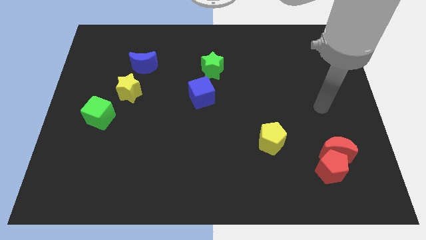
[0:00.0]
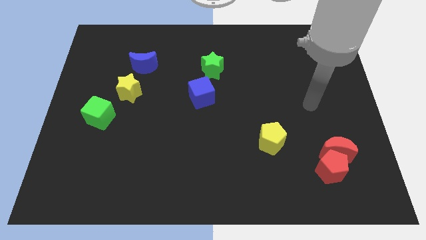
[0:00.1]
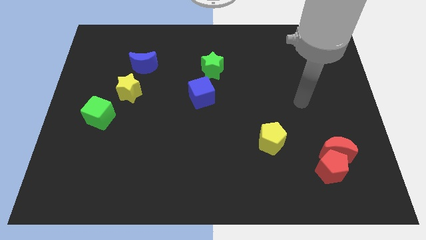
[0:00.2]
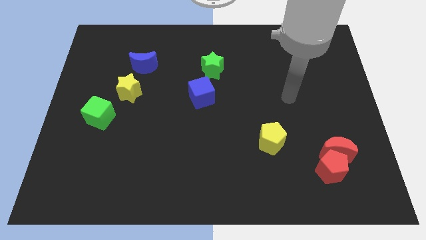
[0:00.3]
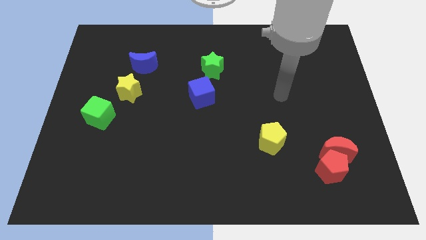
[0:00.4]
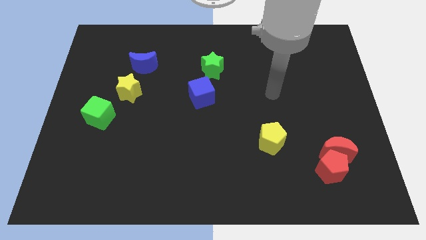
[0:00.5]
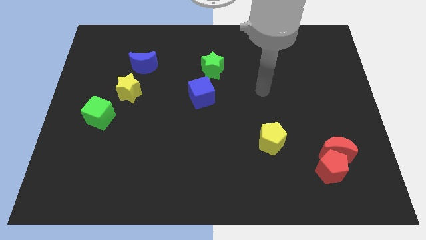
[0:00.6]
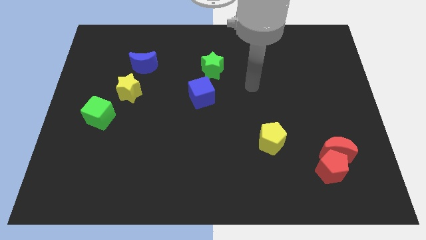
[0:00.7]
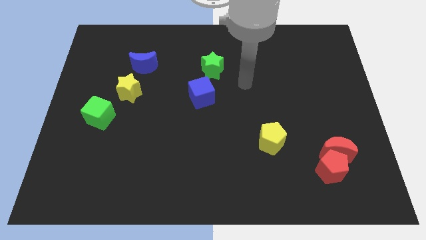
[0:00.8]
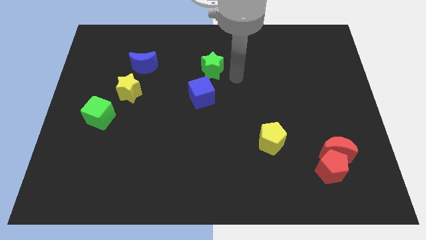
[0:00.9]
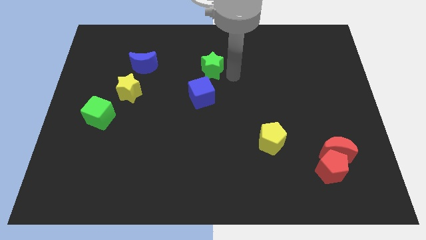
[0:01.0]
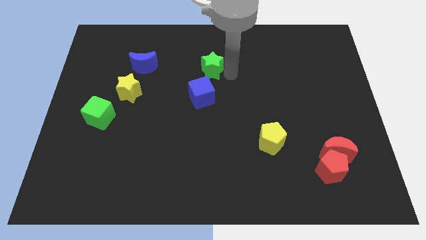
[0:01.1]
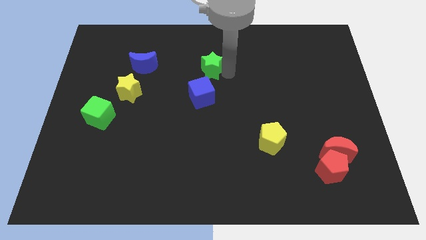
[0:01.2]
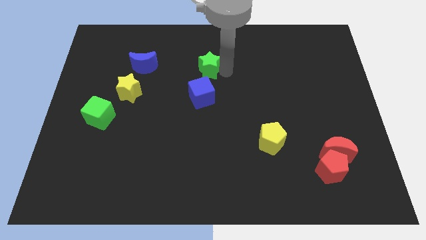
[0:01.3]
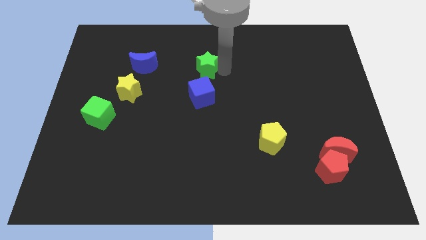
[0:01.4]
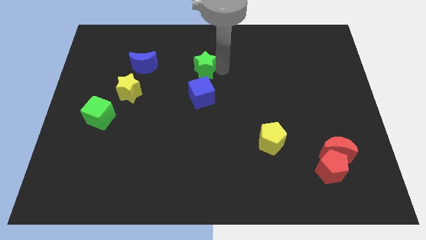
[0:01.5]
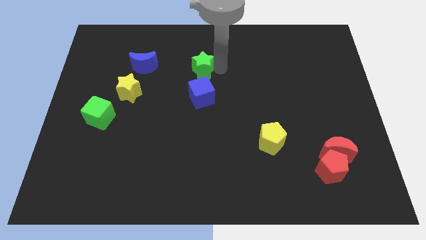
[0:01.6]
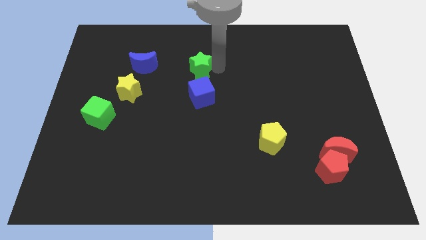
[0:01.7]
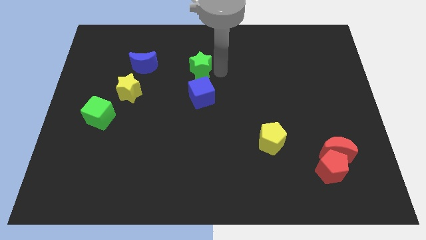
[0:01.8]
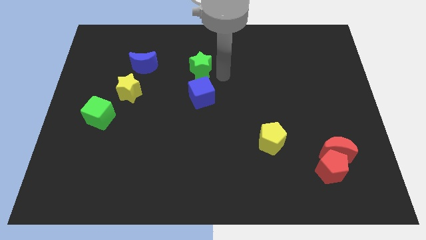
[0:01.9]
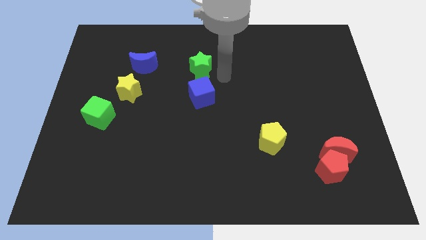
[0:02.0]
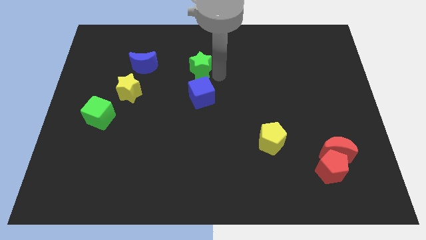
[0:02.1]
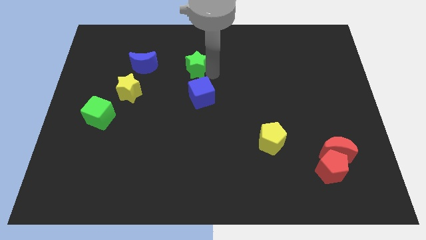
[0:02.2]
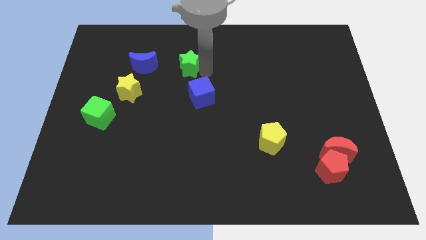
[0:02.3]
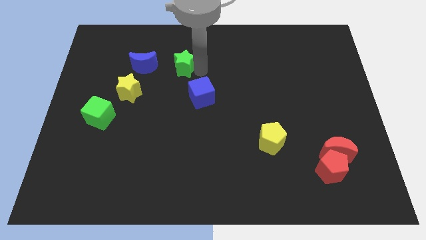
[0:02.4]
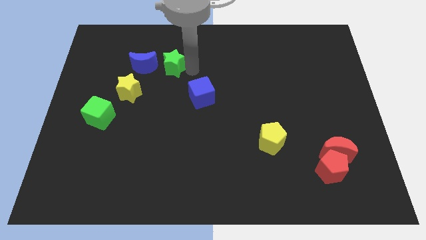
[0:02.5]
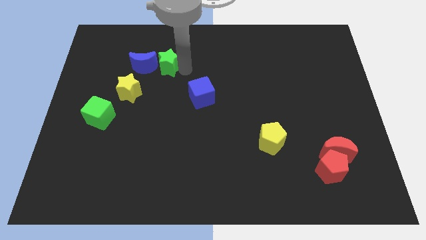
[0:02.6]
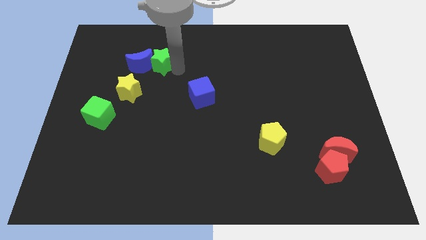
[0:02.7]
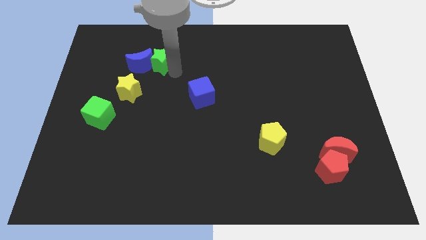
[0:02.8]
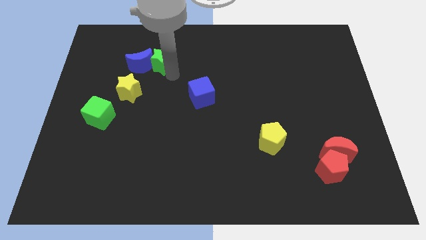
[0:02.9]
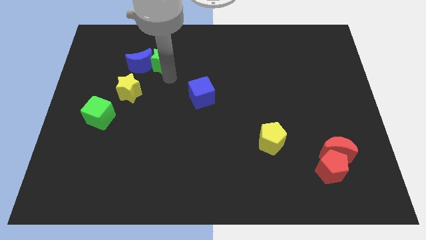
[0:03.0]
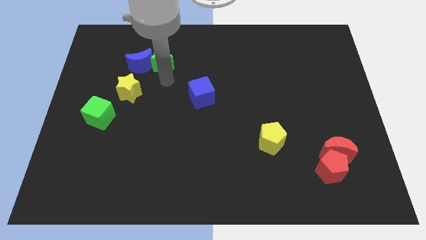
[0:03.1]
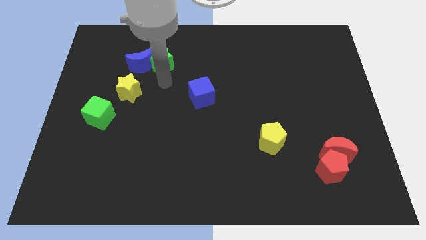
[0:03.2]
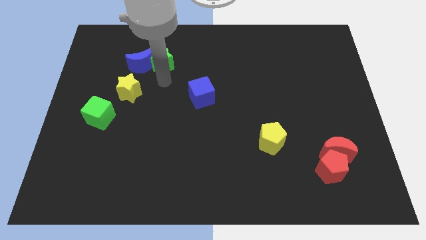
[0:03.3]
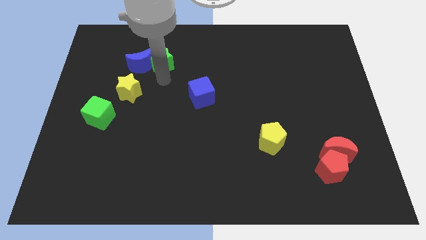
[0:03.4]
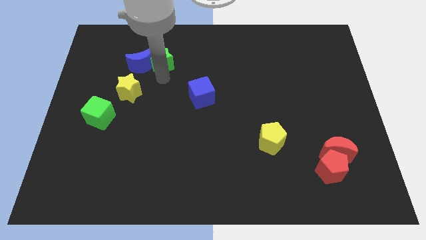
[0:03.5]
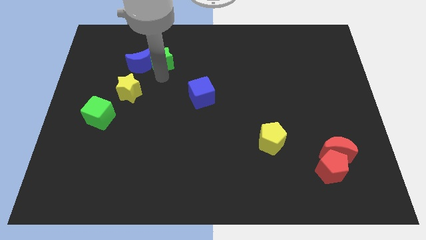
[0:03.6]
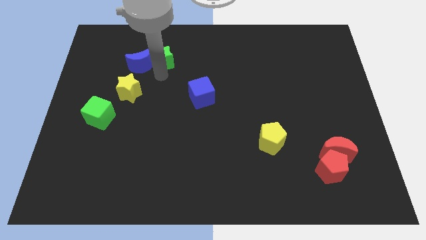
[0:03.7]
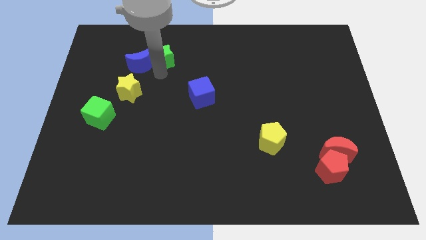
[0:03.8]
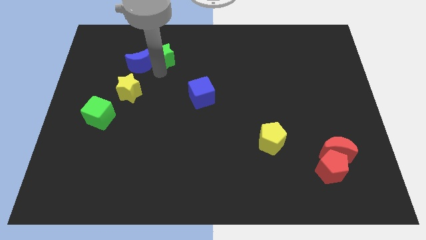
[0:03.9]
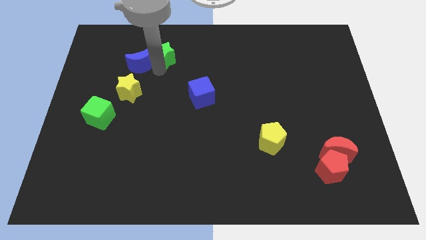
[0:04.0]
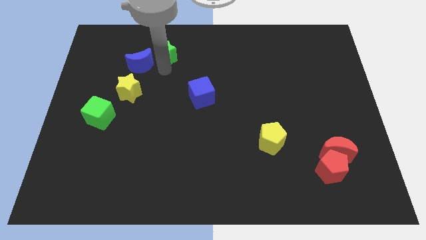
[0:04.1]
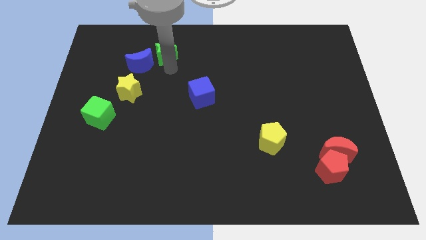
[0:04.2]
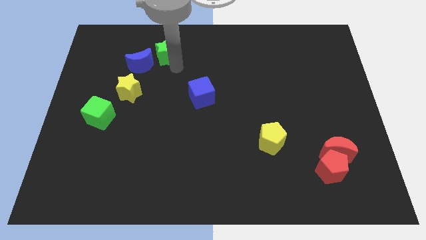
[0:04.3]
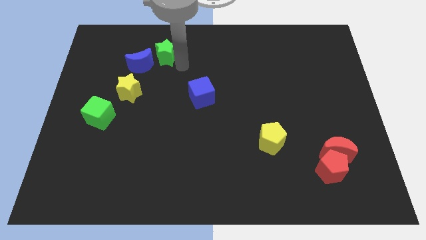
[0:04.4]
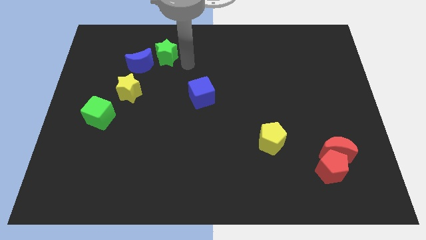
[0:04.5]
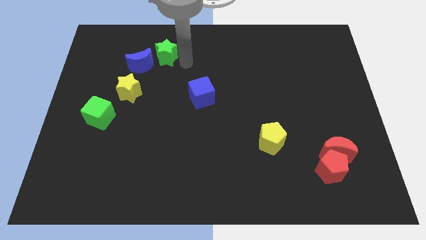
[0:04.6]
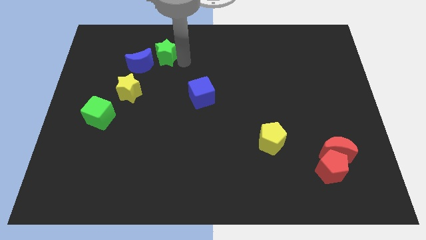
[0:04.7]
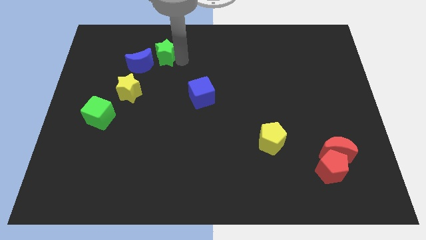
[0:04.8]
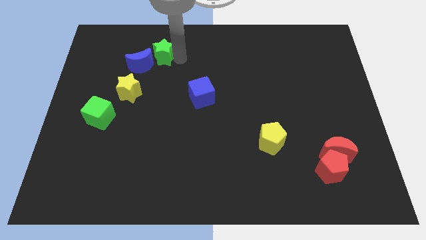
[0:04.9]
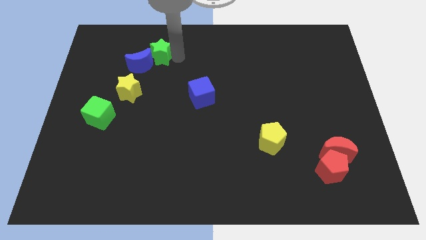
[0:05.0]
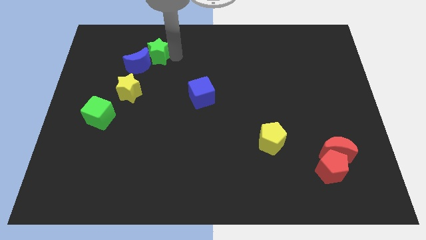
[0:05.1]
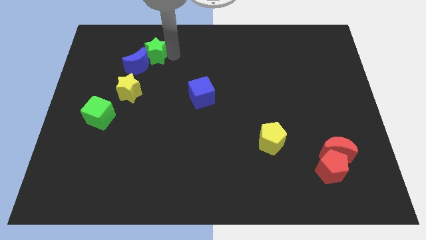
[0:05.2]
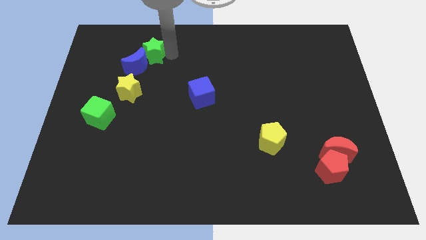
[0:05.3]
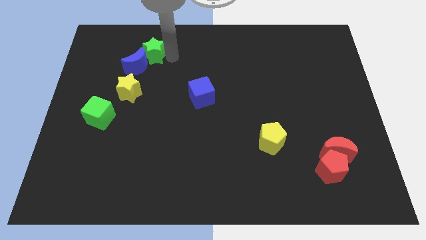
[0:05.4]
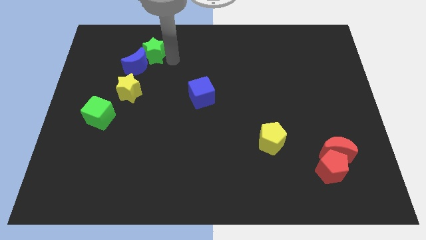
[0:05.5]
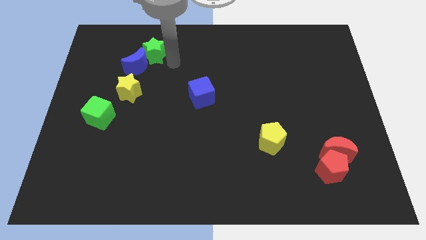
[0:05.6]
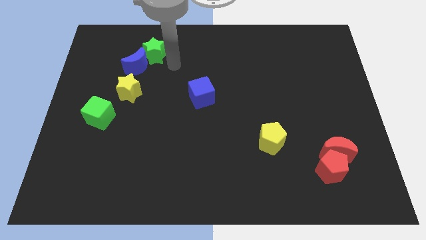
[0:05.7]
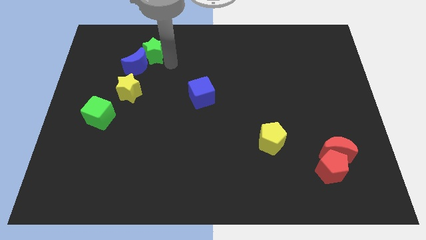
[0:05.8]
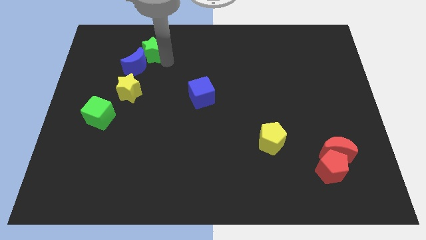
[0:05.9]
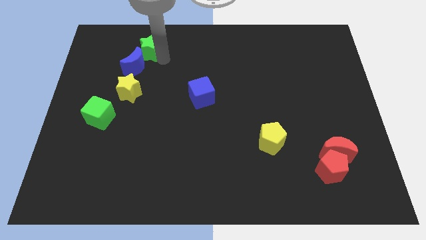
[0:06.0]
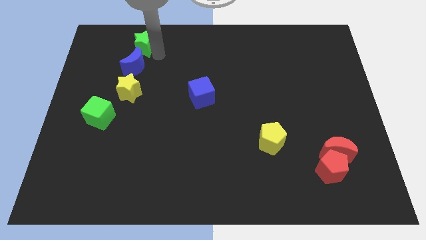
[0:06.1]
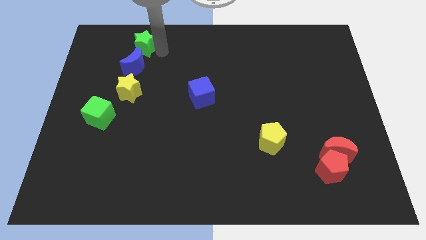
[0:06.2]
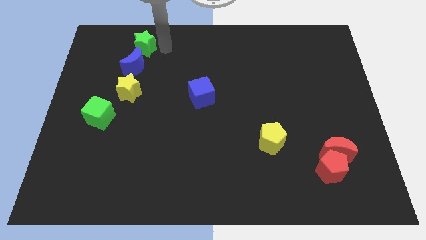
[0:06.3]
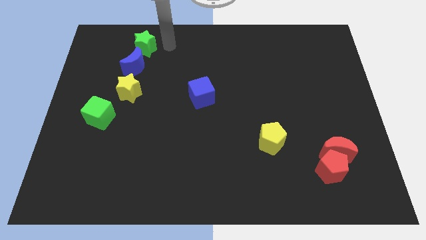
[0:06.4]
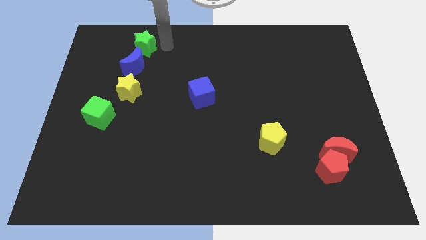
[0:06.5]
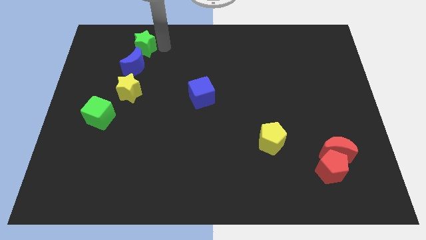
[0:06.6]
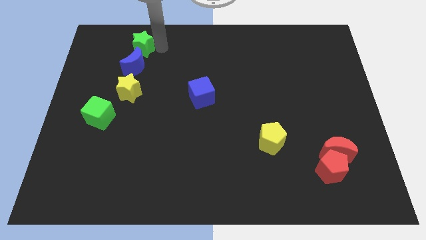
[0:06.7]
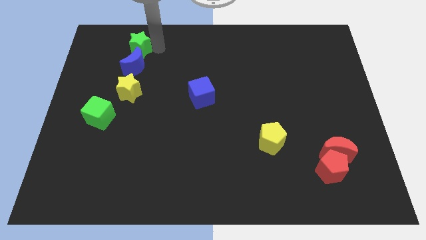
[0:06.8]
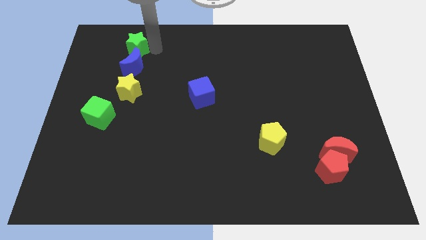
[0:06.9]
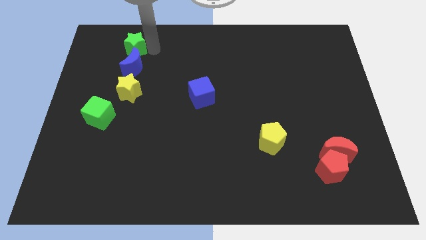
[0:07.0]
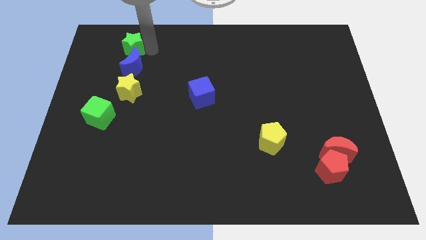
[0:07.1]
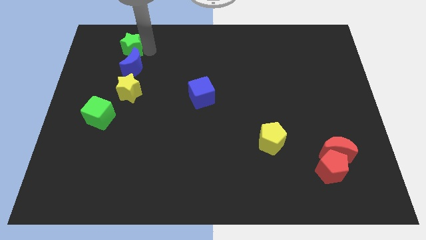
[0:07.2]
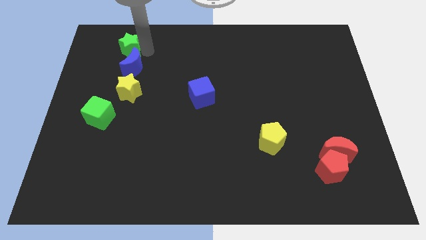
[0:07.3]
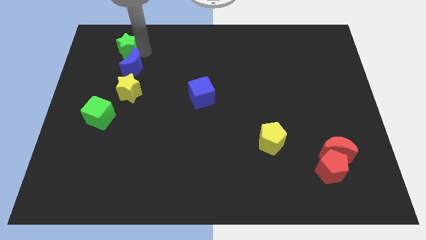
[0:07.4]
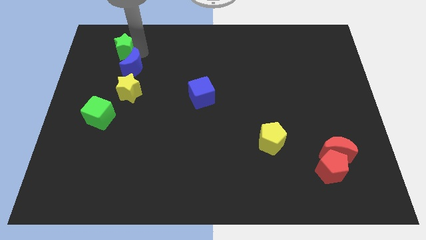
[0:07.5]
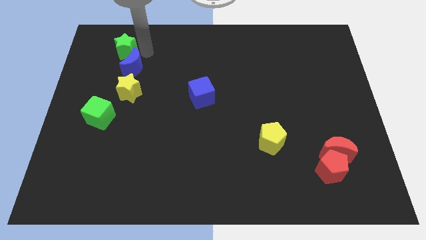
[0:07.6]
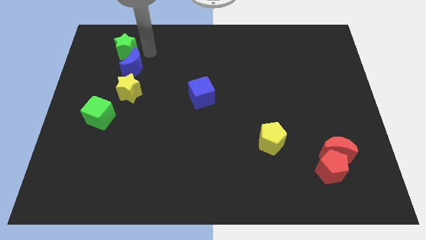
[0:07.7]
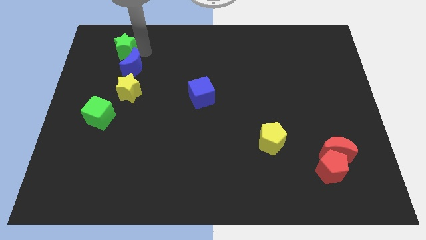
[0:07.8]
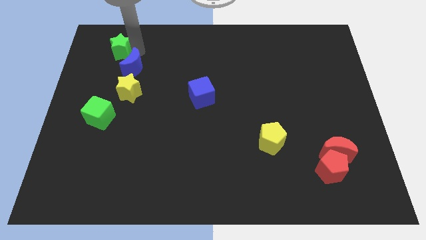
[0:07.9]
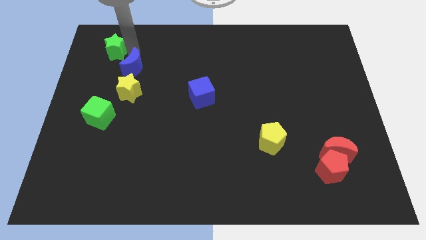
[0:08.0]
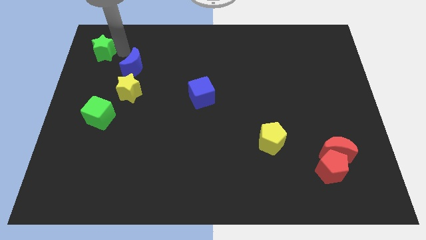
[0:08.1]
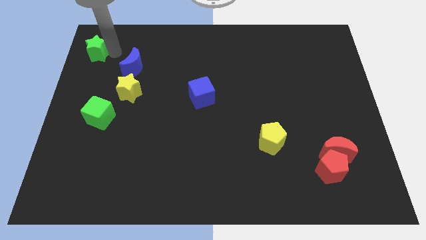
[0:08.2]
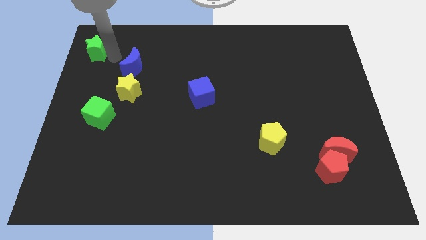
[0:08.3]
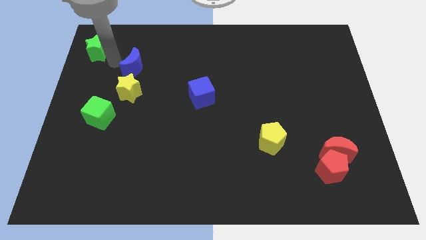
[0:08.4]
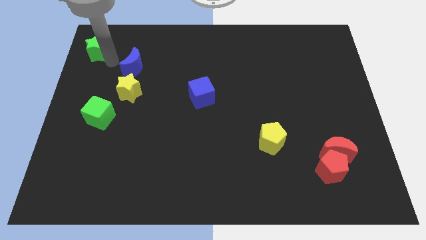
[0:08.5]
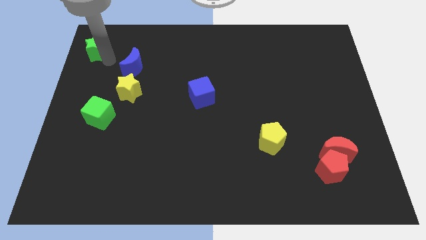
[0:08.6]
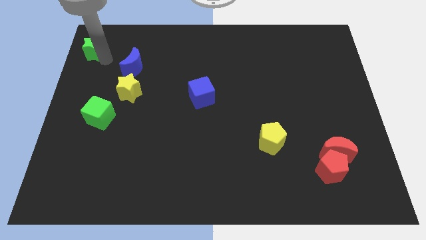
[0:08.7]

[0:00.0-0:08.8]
slide the green star to the top left
